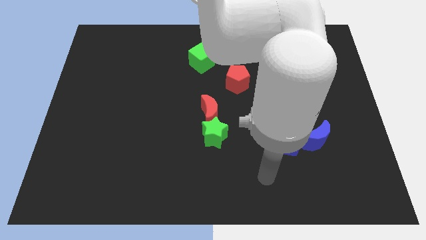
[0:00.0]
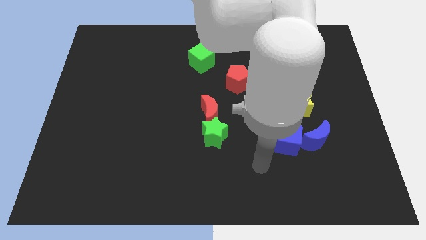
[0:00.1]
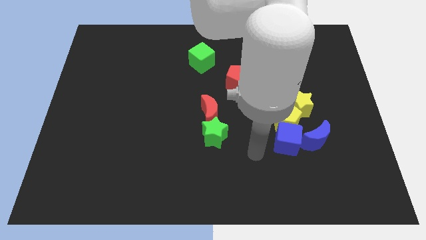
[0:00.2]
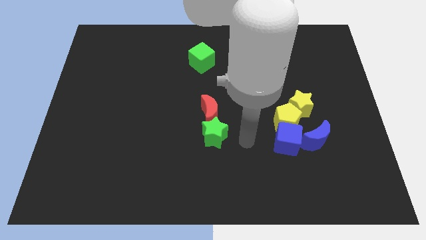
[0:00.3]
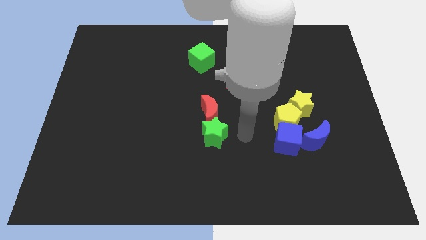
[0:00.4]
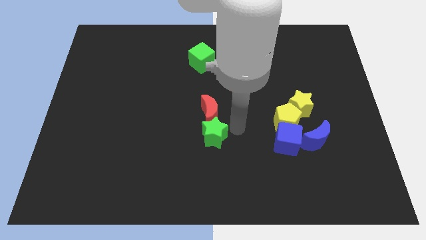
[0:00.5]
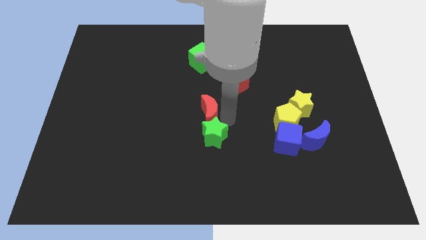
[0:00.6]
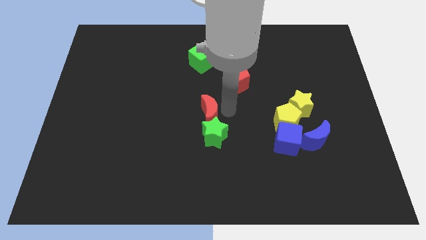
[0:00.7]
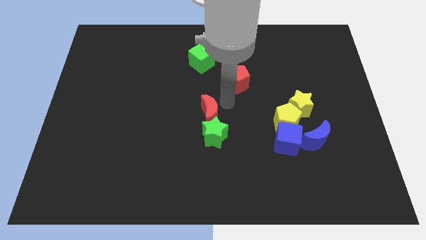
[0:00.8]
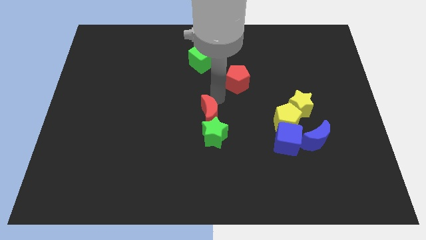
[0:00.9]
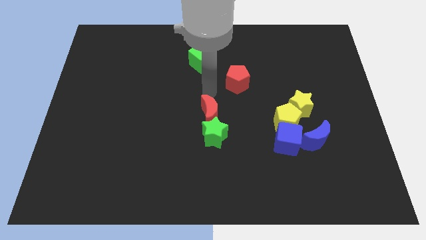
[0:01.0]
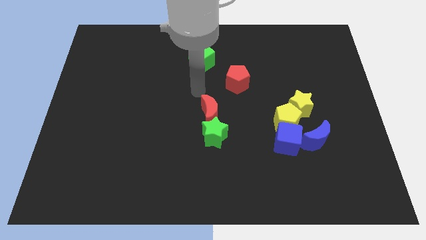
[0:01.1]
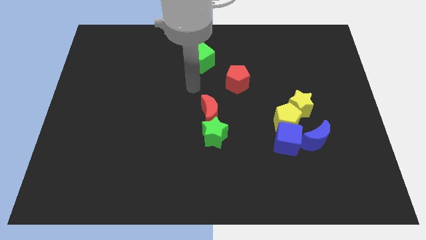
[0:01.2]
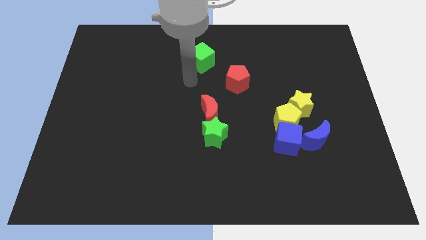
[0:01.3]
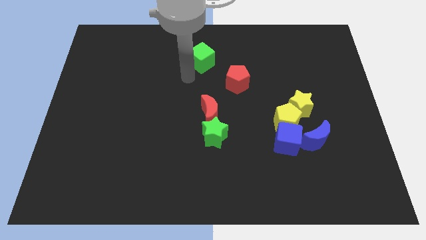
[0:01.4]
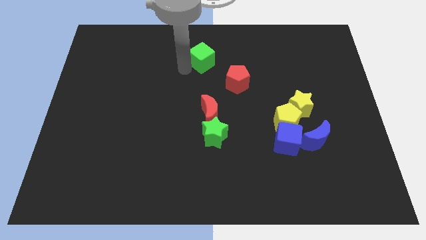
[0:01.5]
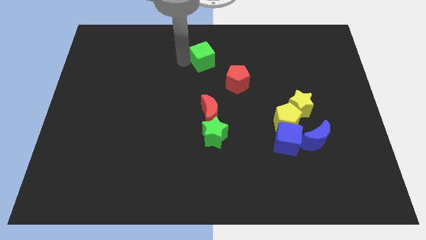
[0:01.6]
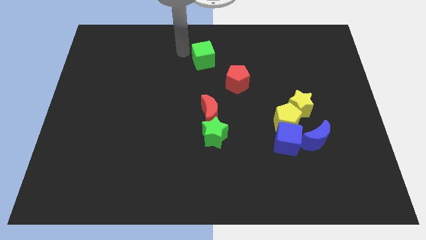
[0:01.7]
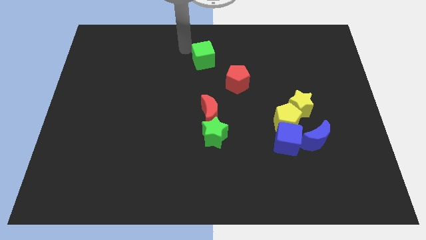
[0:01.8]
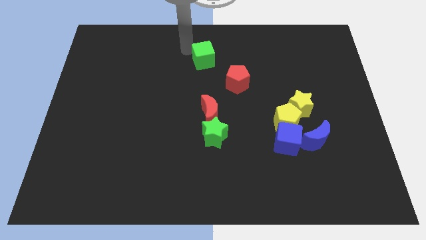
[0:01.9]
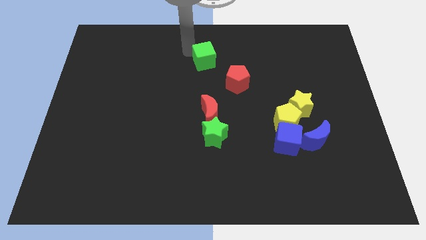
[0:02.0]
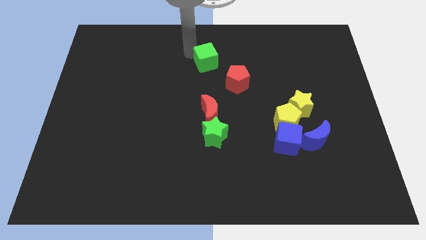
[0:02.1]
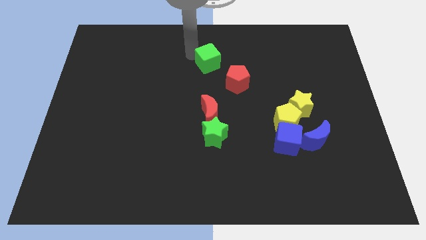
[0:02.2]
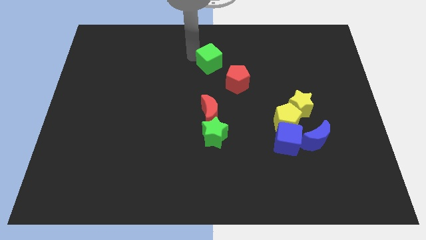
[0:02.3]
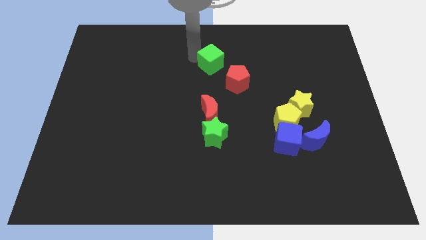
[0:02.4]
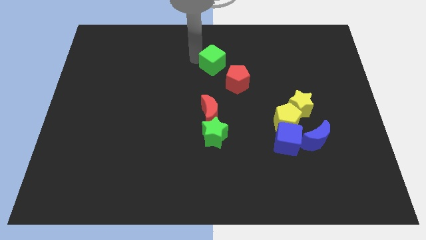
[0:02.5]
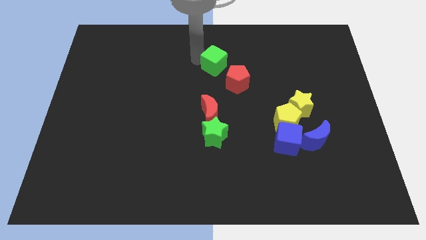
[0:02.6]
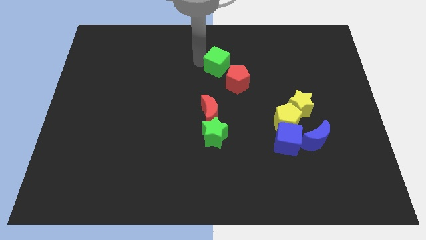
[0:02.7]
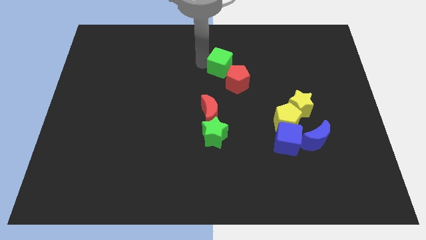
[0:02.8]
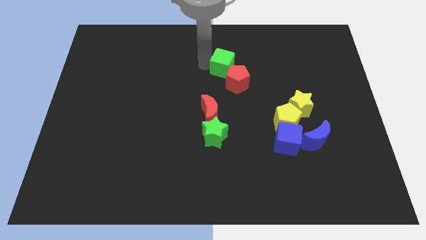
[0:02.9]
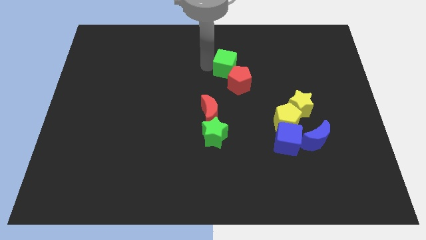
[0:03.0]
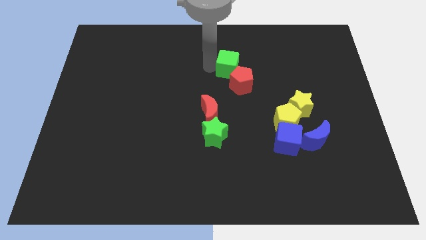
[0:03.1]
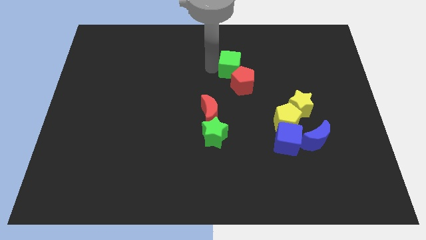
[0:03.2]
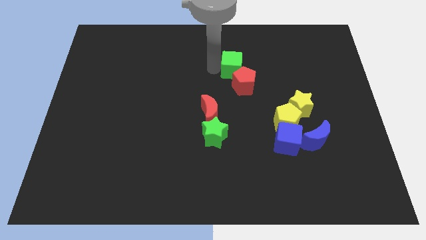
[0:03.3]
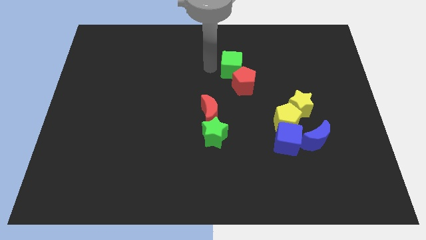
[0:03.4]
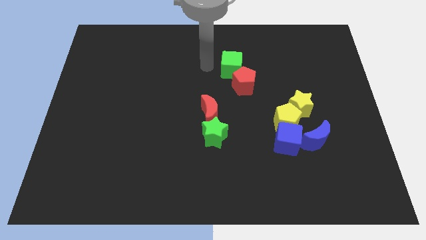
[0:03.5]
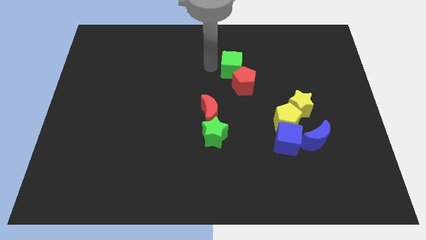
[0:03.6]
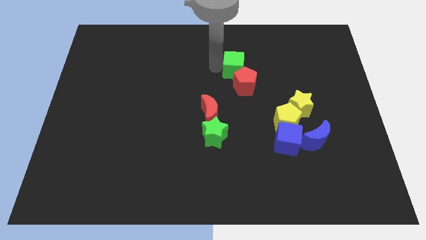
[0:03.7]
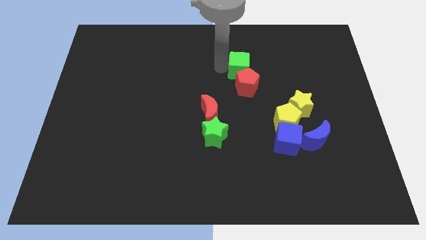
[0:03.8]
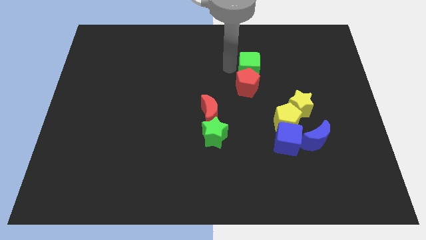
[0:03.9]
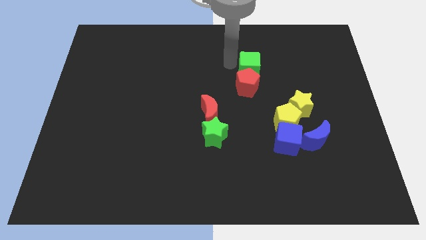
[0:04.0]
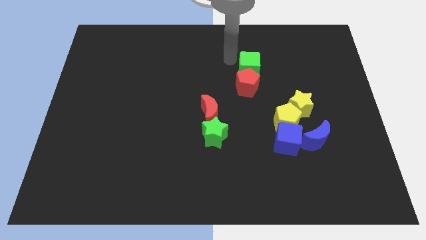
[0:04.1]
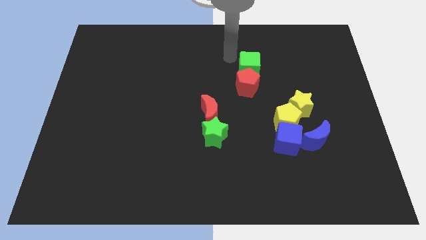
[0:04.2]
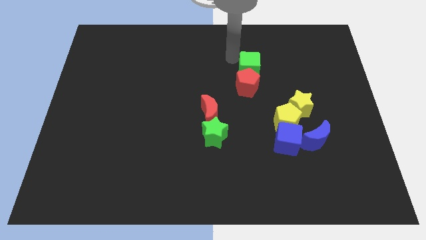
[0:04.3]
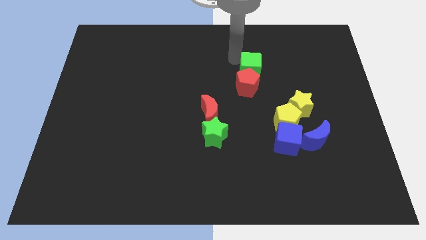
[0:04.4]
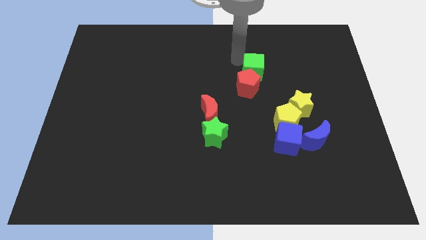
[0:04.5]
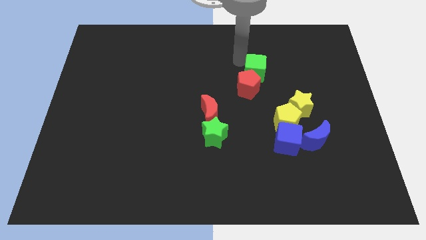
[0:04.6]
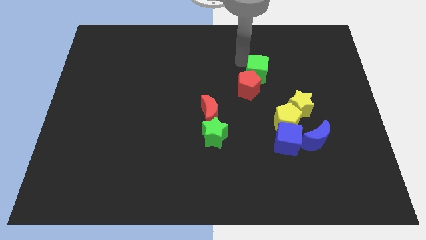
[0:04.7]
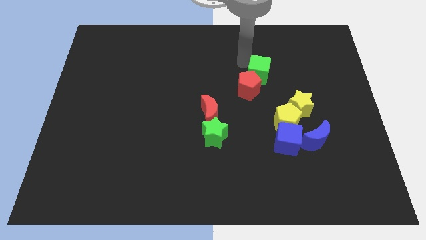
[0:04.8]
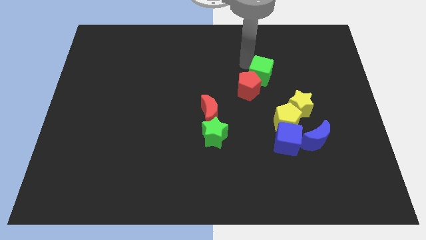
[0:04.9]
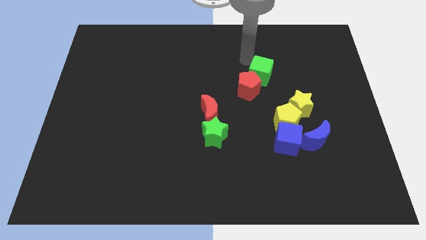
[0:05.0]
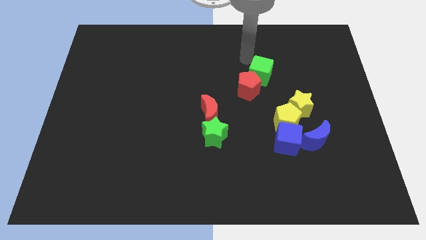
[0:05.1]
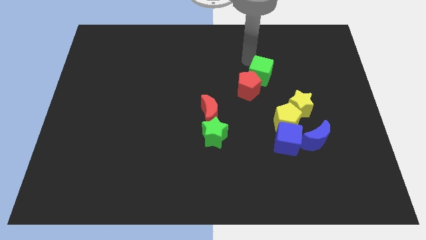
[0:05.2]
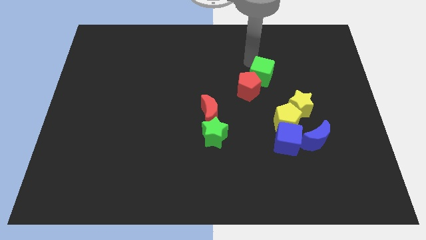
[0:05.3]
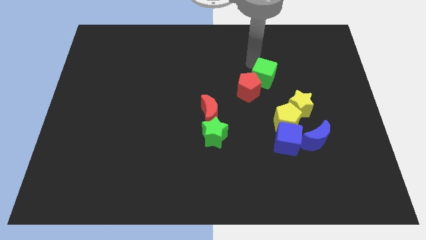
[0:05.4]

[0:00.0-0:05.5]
put the green cube to the top left side of the yellow star

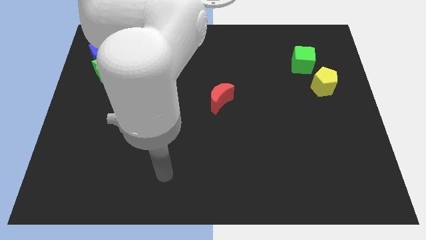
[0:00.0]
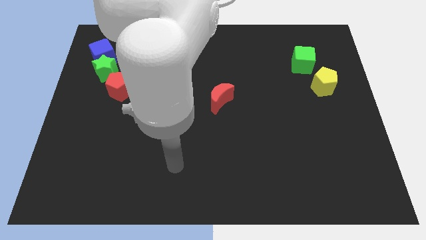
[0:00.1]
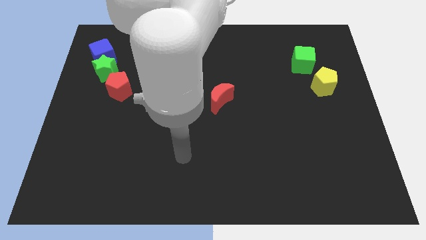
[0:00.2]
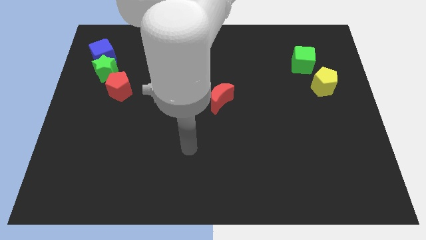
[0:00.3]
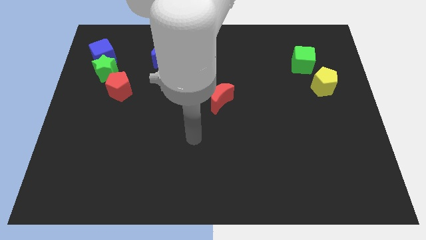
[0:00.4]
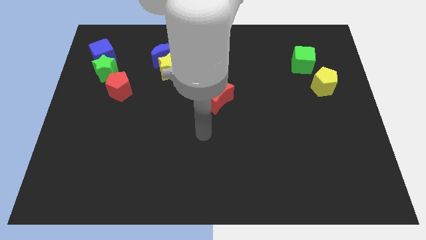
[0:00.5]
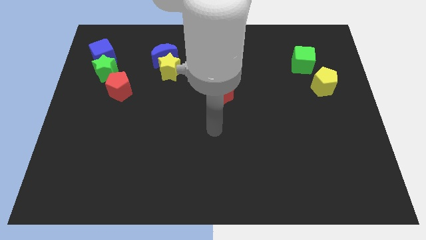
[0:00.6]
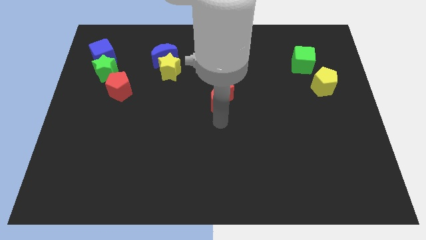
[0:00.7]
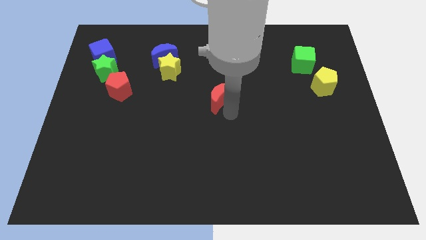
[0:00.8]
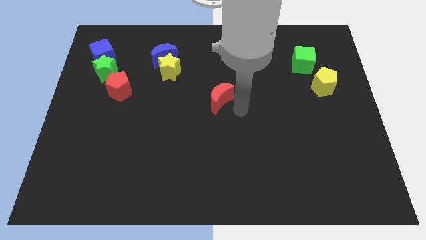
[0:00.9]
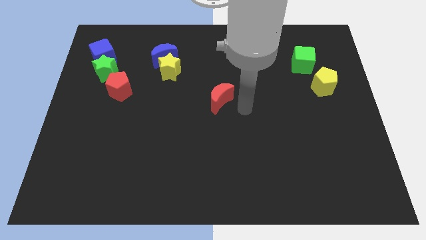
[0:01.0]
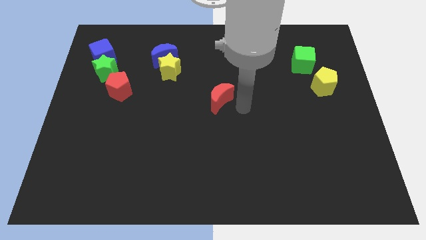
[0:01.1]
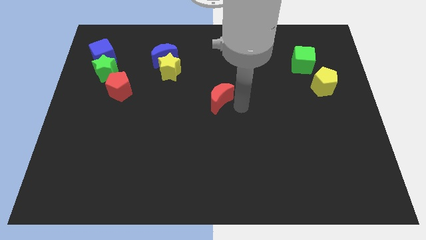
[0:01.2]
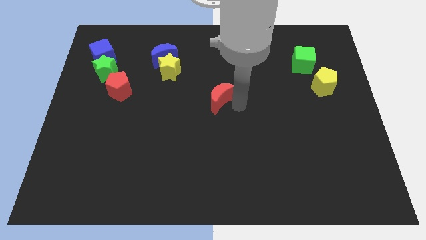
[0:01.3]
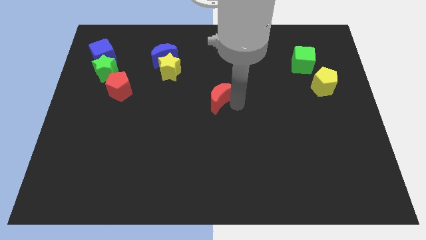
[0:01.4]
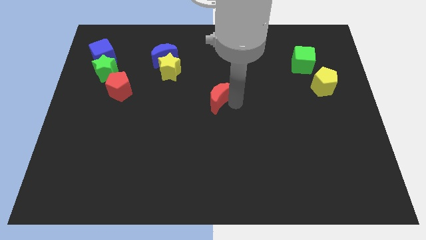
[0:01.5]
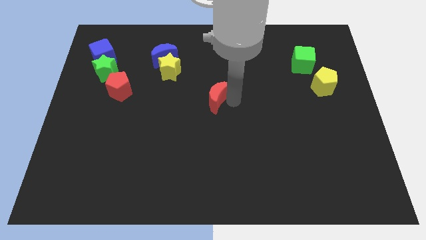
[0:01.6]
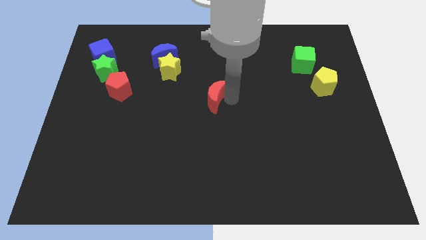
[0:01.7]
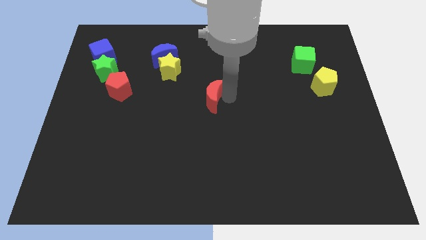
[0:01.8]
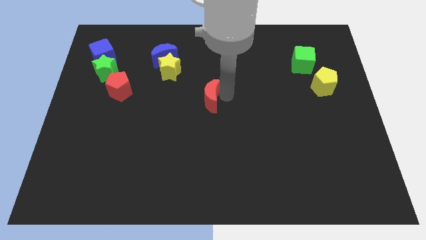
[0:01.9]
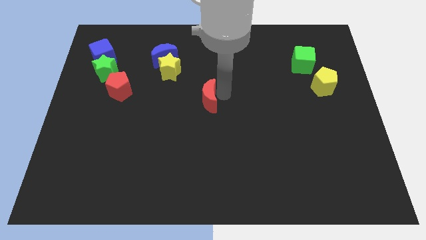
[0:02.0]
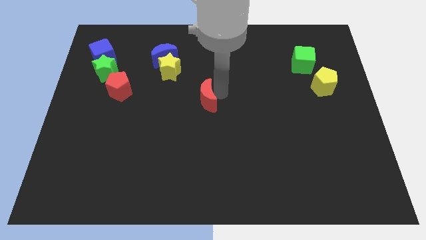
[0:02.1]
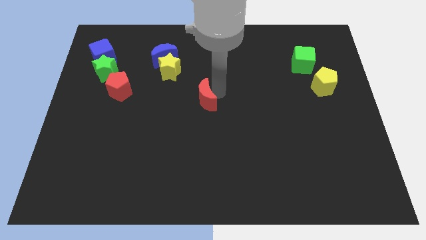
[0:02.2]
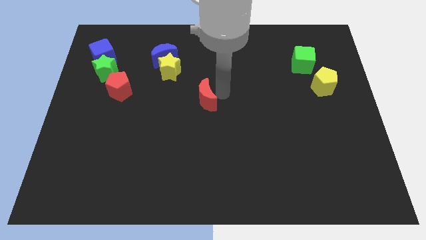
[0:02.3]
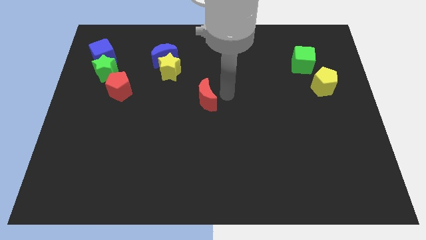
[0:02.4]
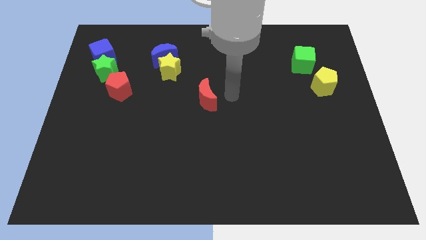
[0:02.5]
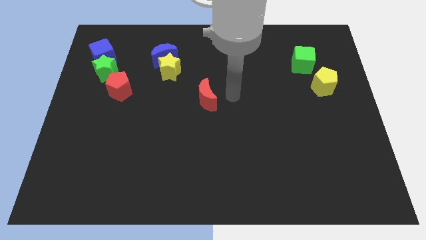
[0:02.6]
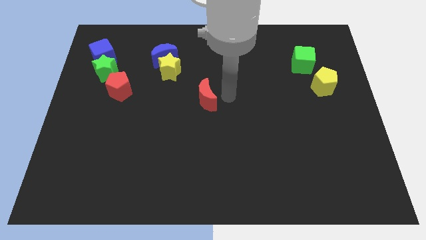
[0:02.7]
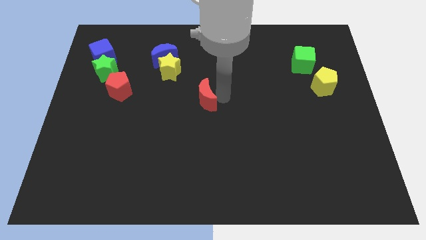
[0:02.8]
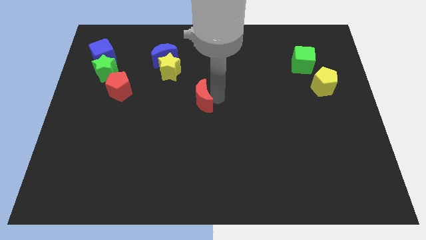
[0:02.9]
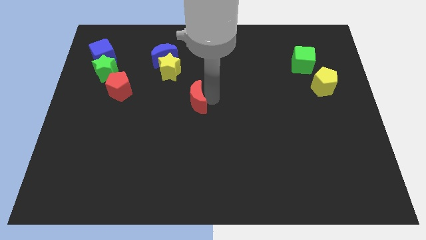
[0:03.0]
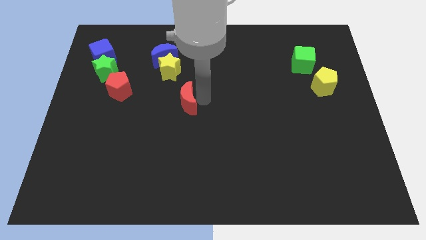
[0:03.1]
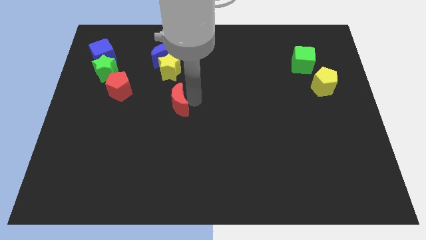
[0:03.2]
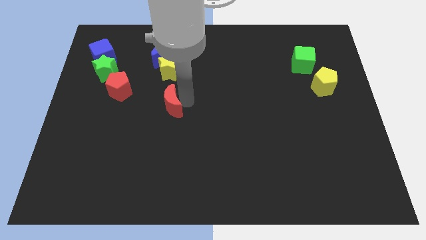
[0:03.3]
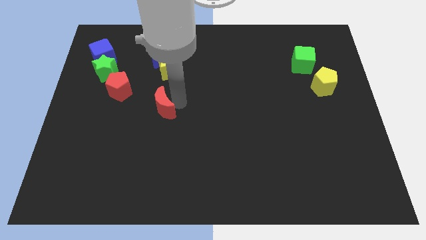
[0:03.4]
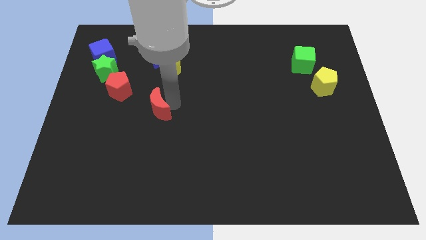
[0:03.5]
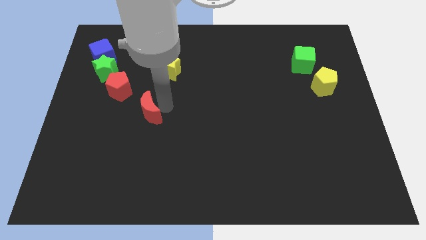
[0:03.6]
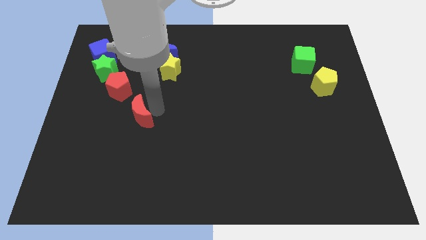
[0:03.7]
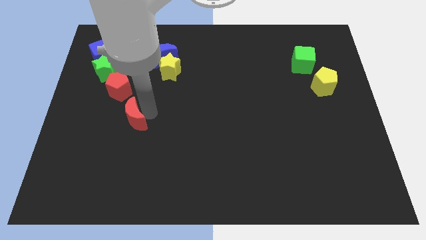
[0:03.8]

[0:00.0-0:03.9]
move the red moon to the bottom of the red pentagon
